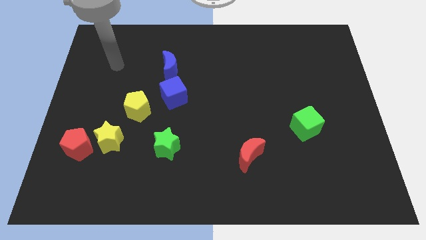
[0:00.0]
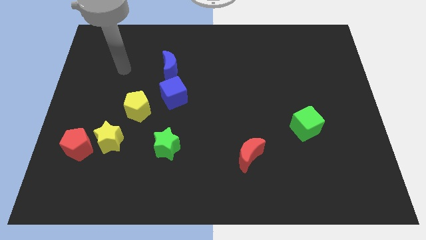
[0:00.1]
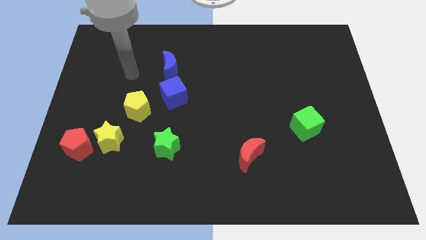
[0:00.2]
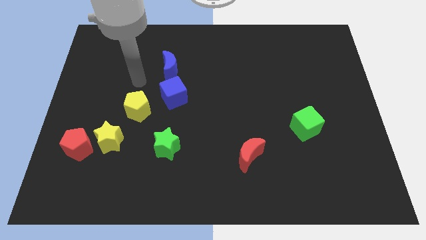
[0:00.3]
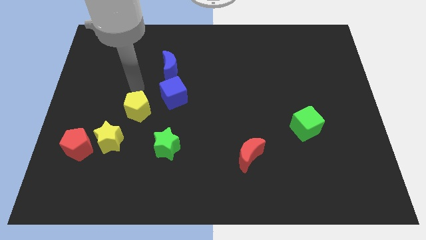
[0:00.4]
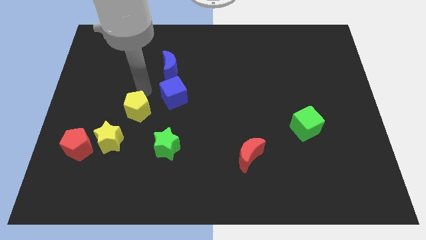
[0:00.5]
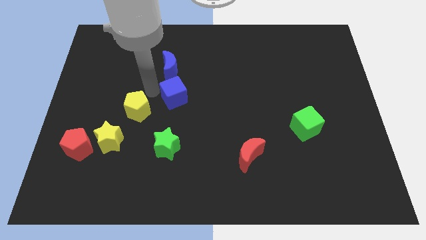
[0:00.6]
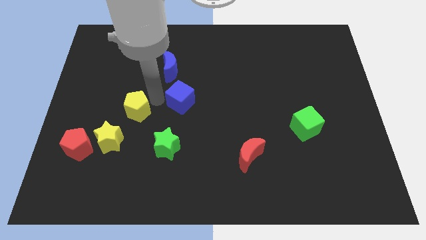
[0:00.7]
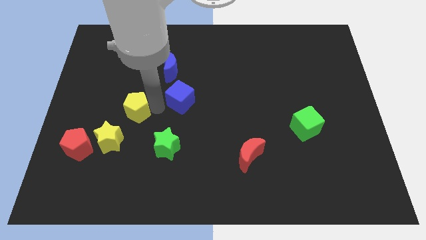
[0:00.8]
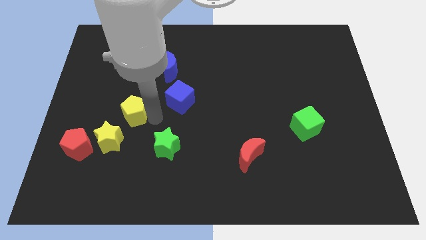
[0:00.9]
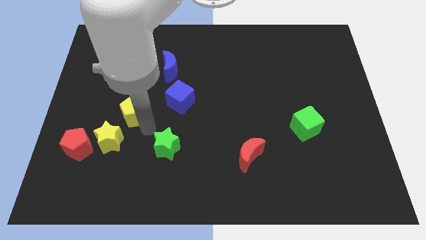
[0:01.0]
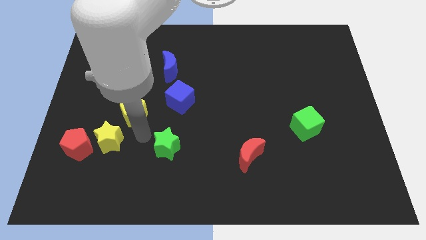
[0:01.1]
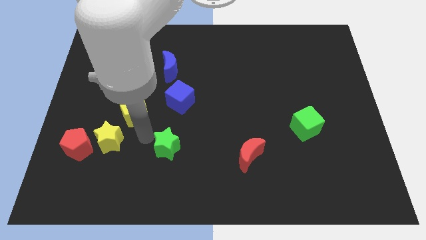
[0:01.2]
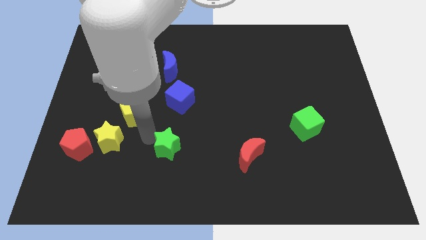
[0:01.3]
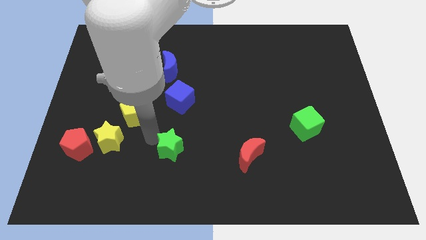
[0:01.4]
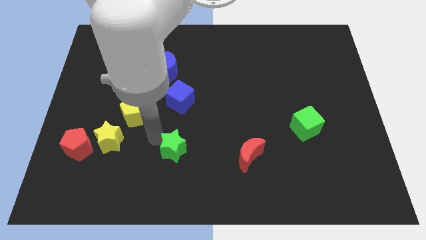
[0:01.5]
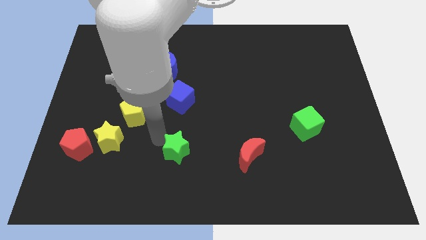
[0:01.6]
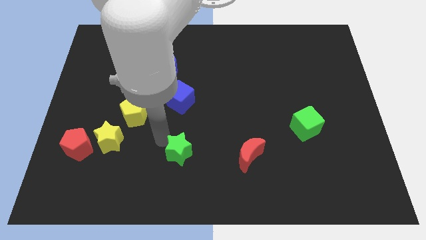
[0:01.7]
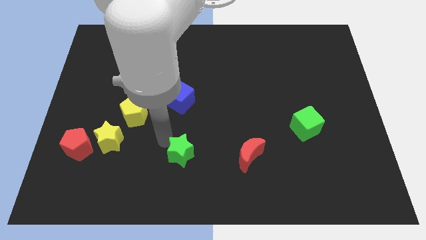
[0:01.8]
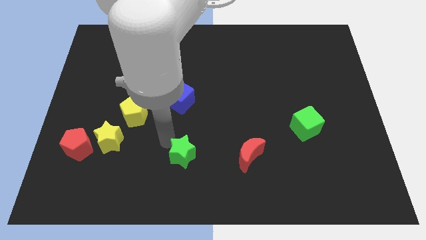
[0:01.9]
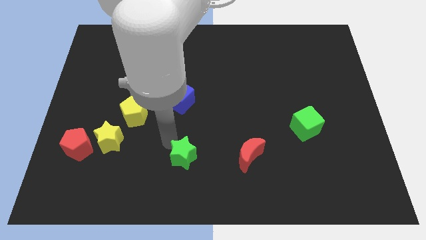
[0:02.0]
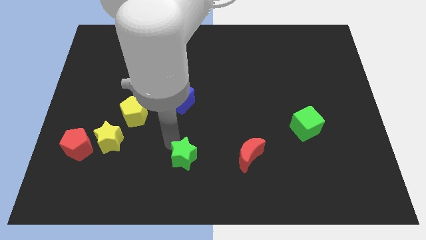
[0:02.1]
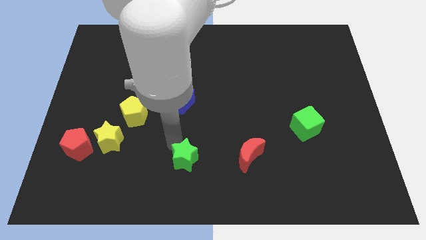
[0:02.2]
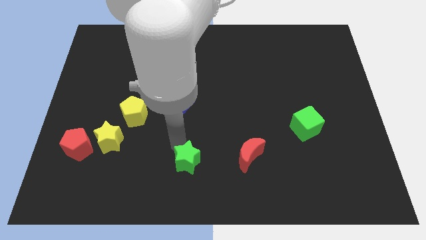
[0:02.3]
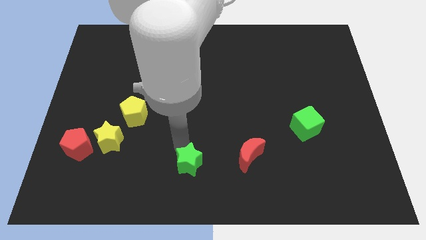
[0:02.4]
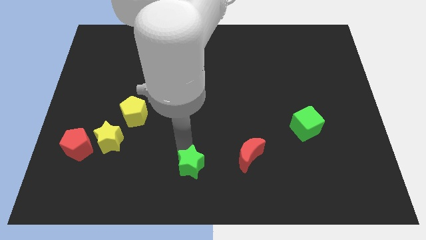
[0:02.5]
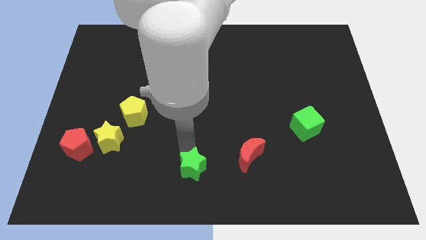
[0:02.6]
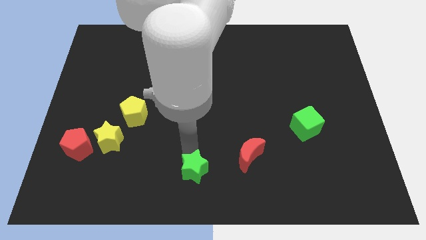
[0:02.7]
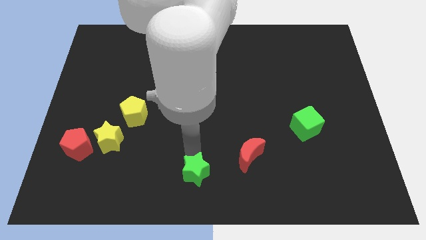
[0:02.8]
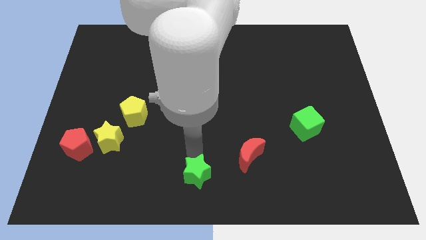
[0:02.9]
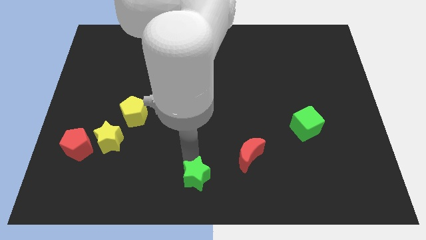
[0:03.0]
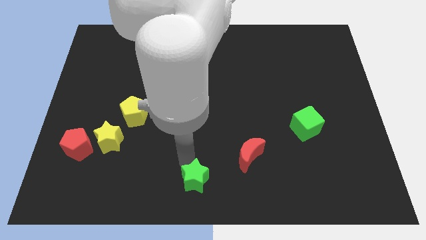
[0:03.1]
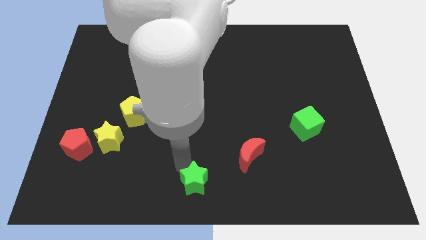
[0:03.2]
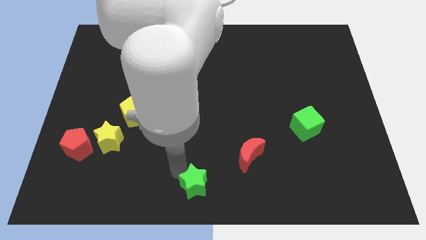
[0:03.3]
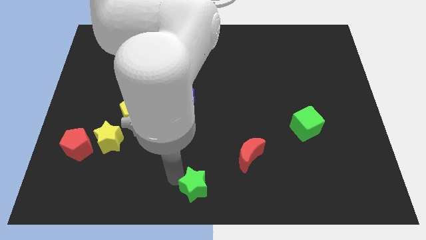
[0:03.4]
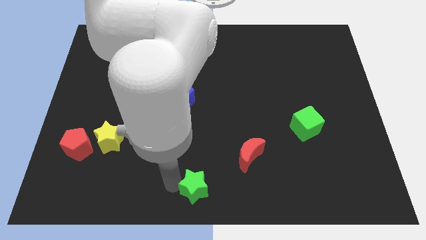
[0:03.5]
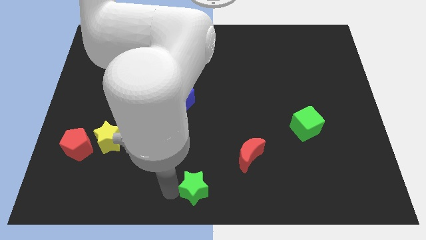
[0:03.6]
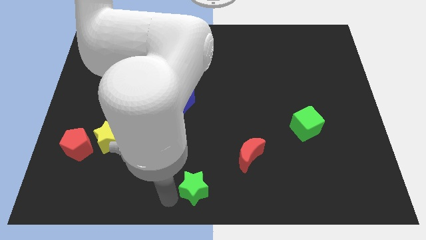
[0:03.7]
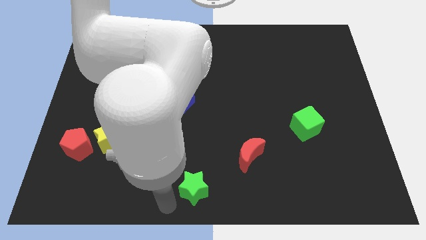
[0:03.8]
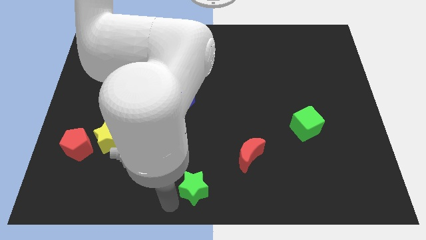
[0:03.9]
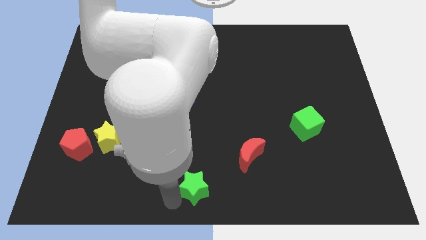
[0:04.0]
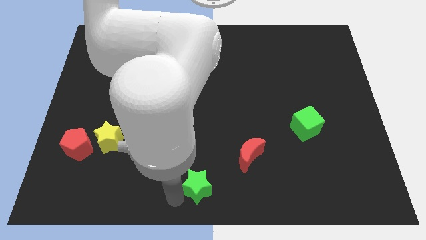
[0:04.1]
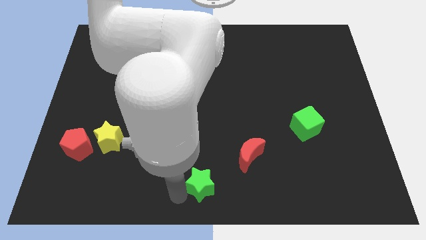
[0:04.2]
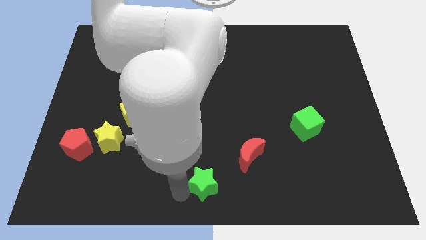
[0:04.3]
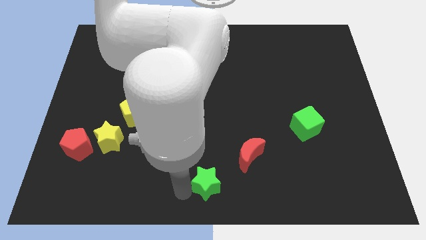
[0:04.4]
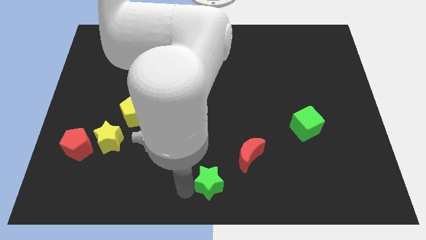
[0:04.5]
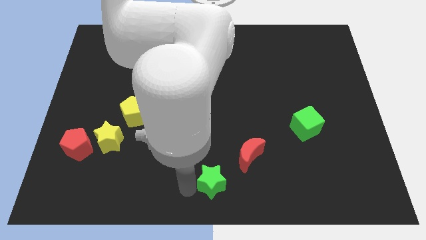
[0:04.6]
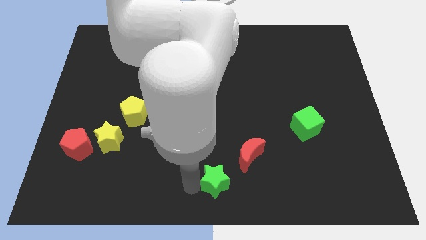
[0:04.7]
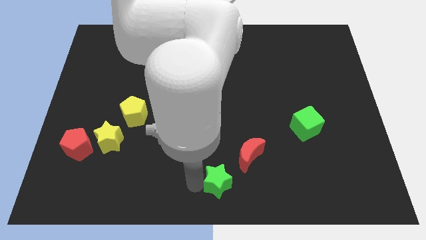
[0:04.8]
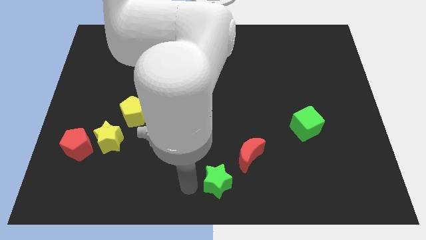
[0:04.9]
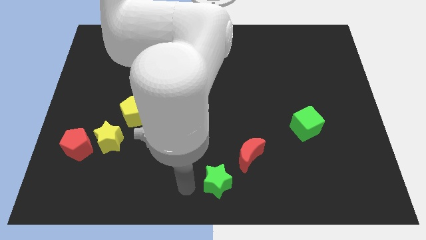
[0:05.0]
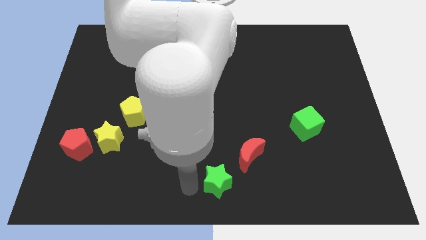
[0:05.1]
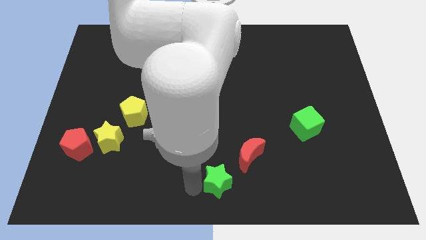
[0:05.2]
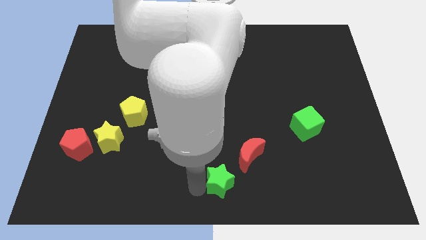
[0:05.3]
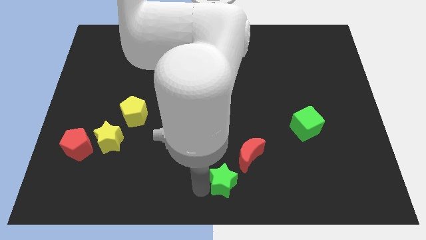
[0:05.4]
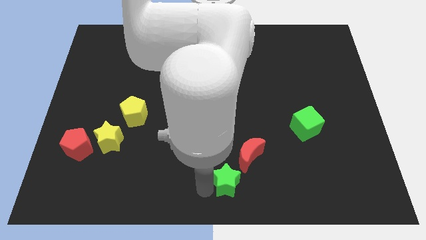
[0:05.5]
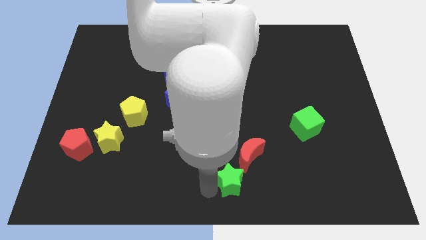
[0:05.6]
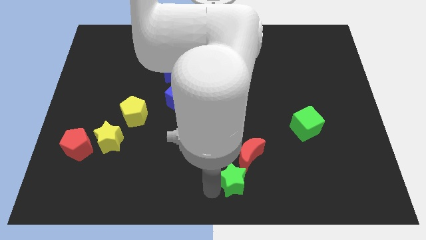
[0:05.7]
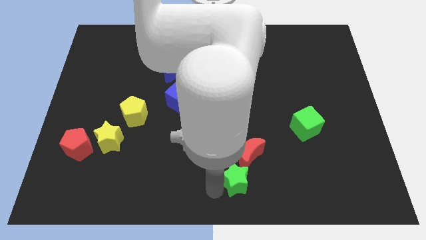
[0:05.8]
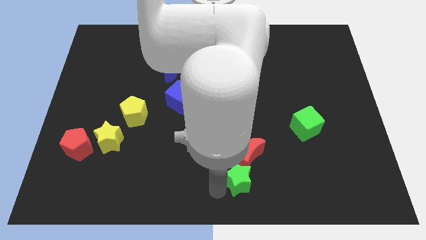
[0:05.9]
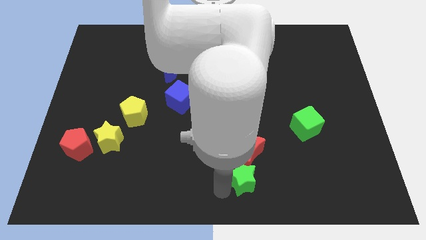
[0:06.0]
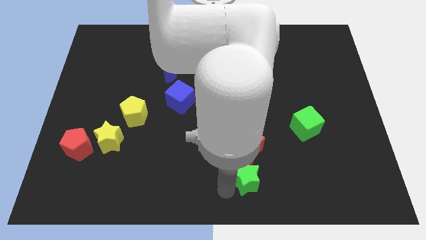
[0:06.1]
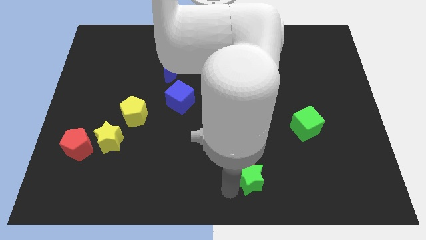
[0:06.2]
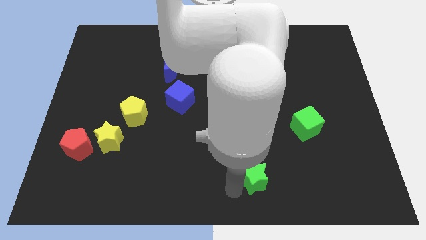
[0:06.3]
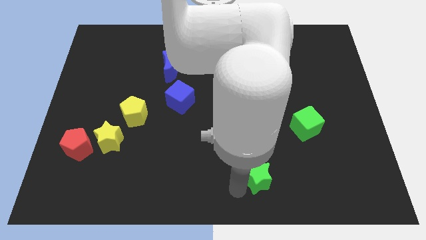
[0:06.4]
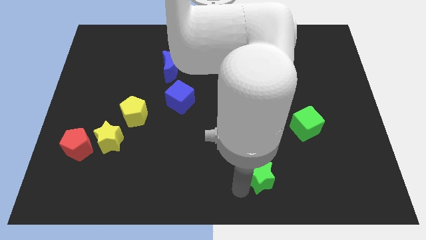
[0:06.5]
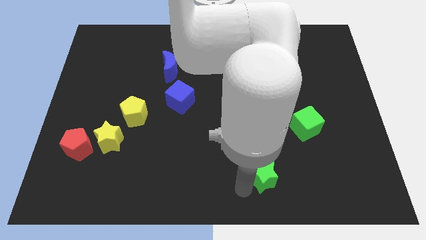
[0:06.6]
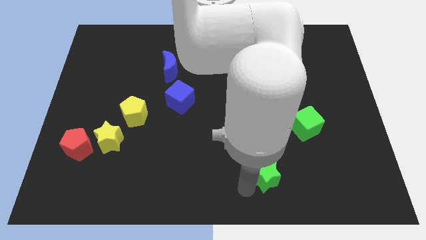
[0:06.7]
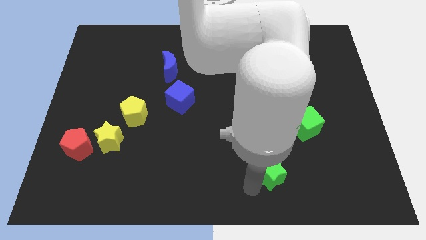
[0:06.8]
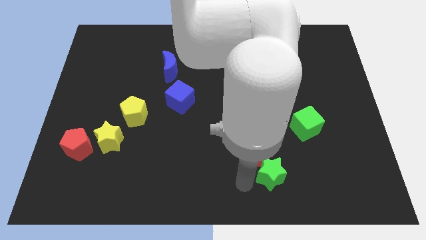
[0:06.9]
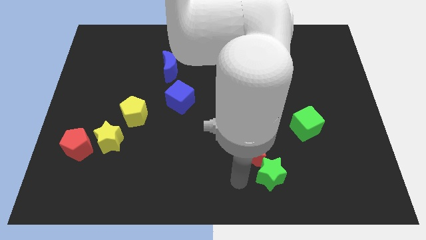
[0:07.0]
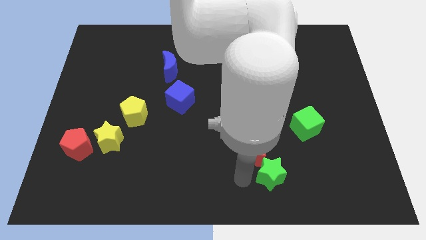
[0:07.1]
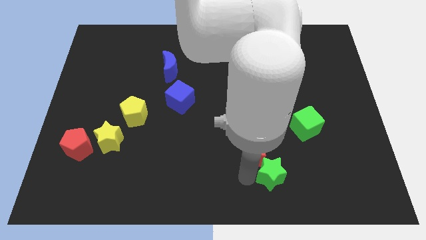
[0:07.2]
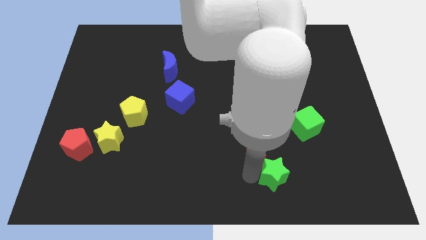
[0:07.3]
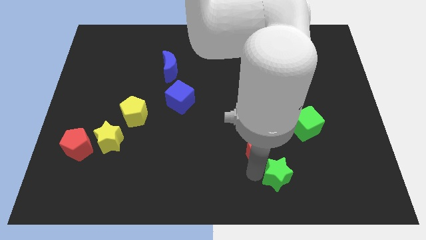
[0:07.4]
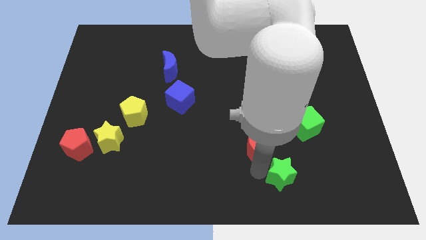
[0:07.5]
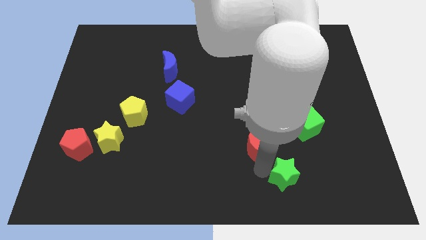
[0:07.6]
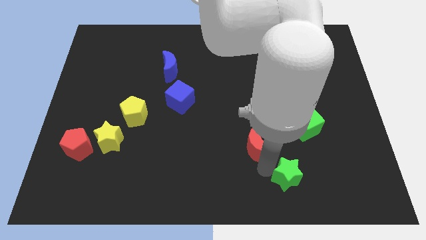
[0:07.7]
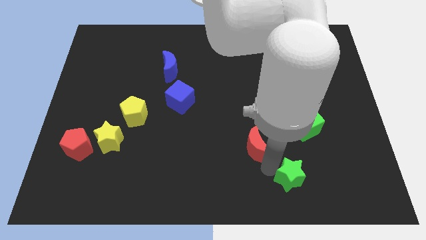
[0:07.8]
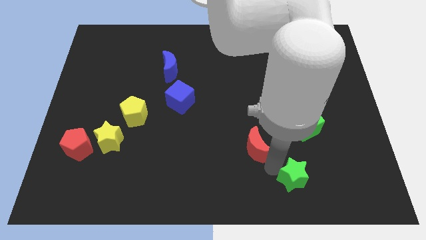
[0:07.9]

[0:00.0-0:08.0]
push the green star below the green cube
